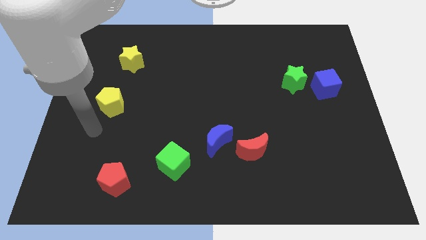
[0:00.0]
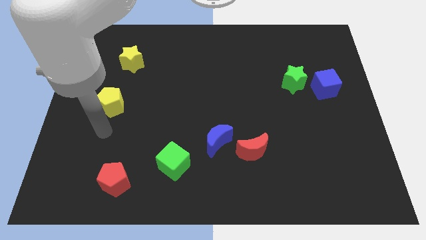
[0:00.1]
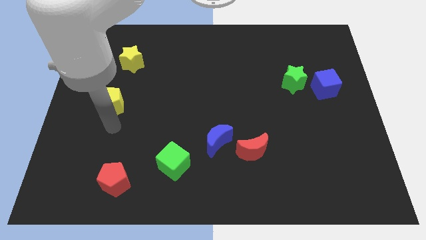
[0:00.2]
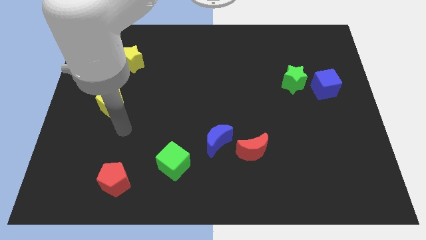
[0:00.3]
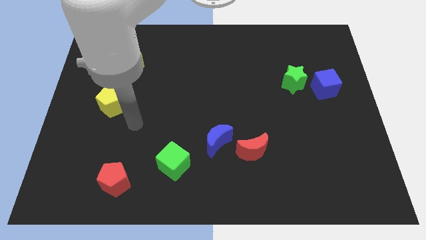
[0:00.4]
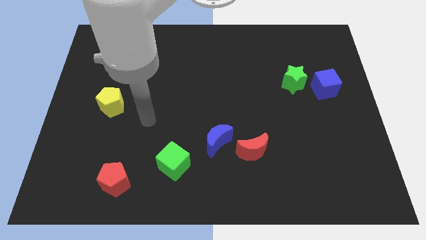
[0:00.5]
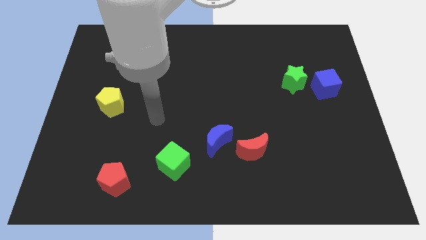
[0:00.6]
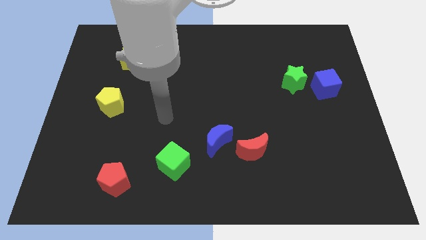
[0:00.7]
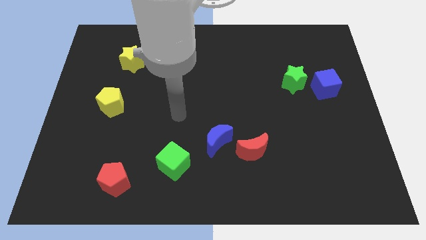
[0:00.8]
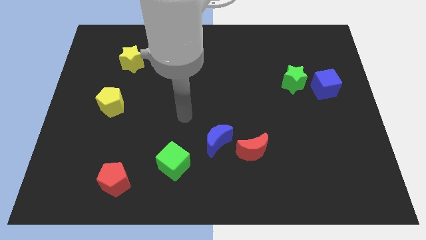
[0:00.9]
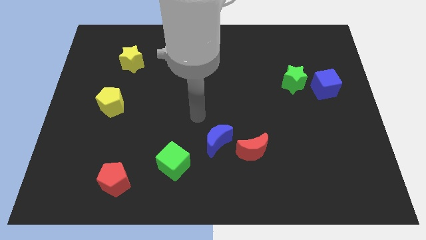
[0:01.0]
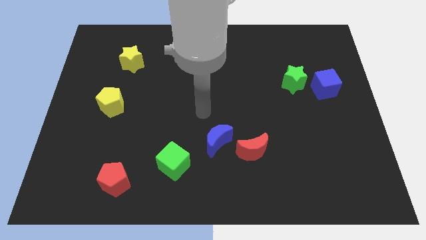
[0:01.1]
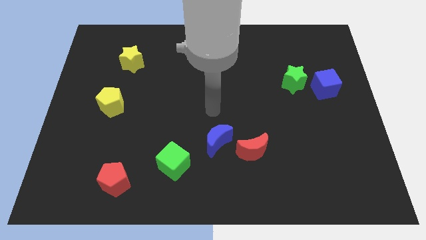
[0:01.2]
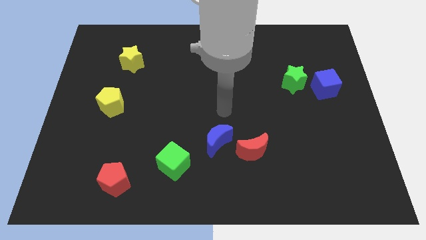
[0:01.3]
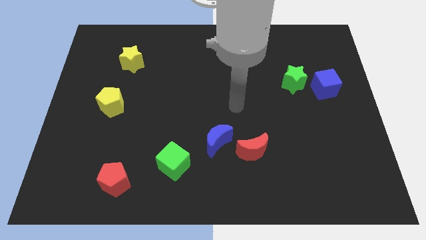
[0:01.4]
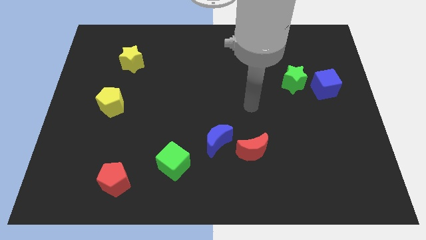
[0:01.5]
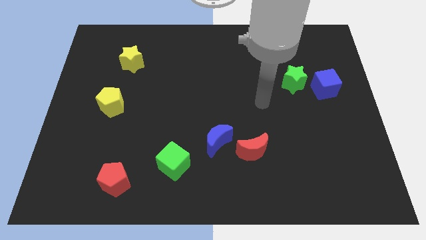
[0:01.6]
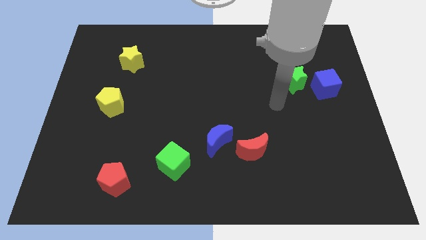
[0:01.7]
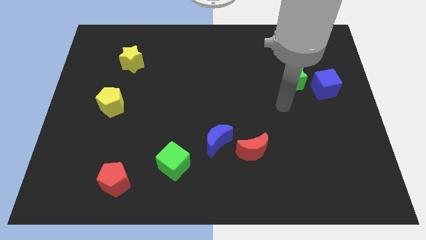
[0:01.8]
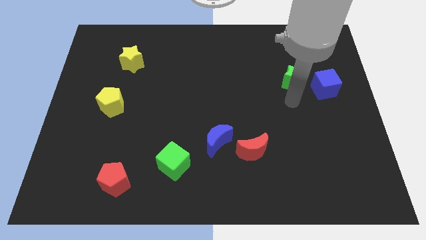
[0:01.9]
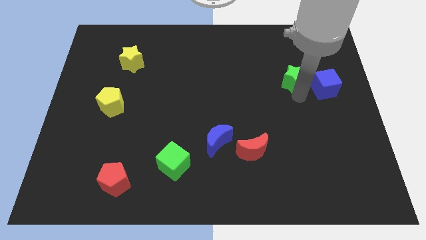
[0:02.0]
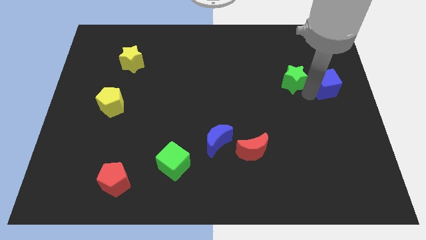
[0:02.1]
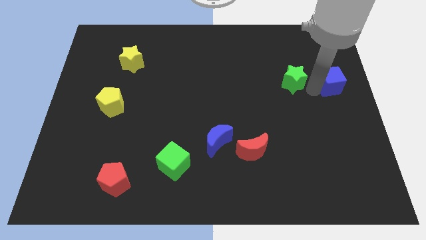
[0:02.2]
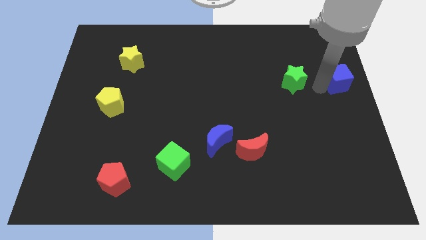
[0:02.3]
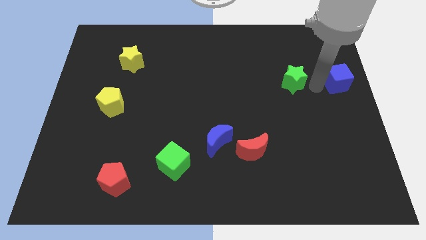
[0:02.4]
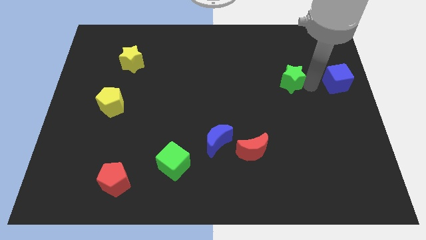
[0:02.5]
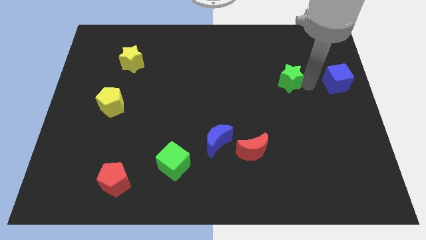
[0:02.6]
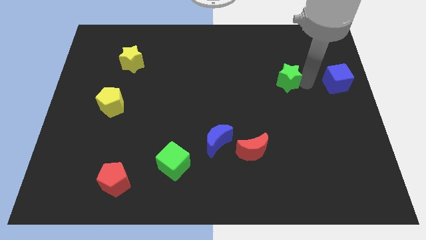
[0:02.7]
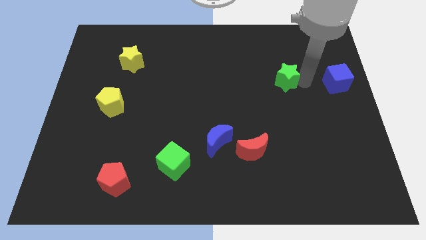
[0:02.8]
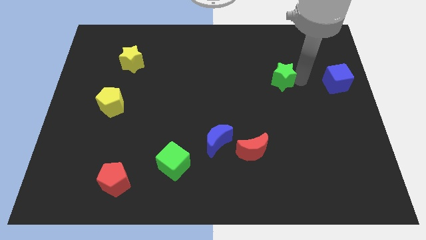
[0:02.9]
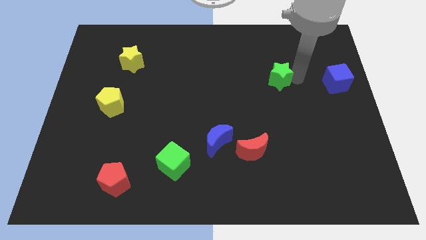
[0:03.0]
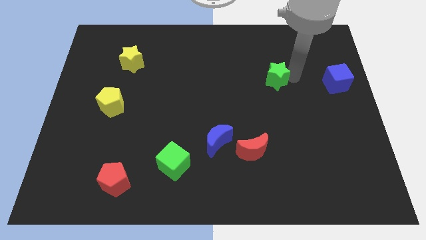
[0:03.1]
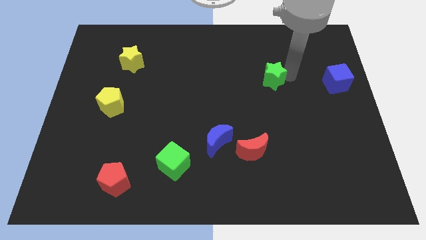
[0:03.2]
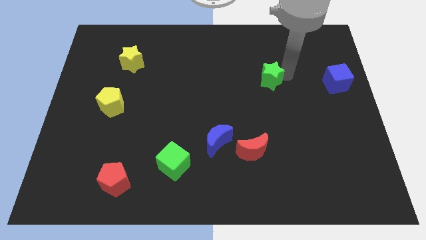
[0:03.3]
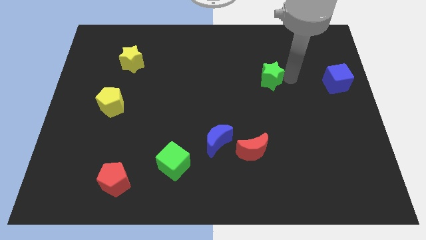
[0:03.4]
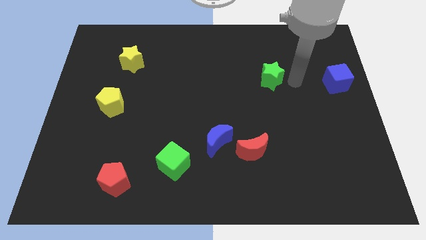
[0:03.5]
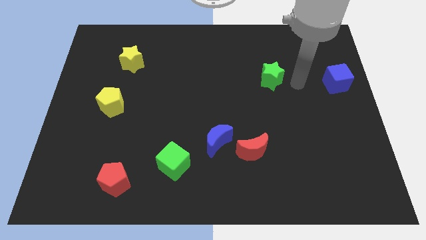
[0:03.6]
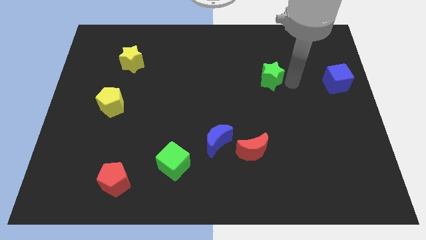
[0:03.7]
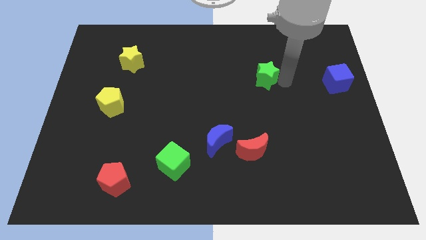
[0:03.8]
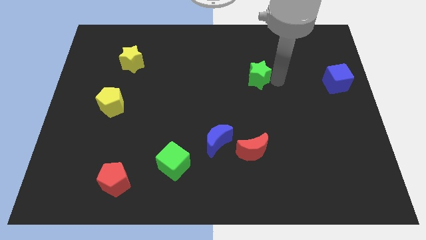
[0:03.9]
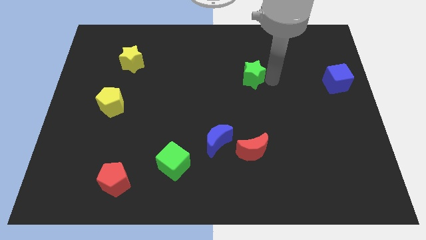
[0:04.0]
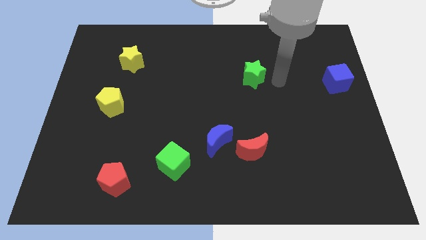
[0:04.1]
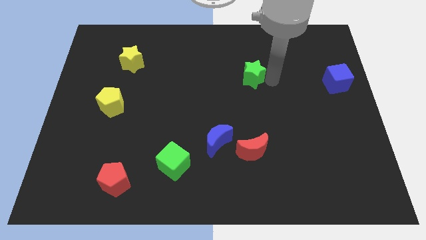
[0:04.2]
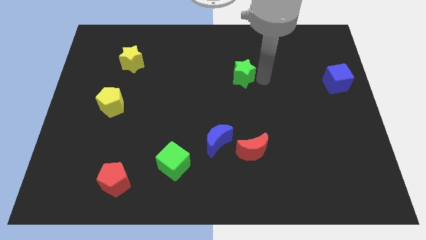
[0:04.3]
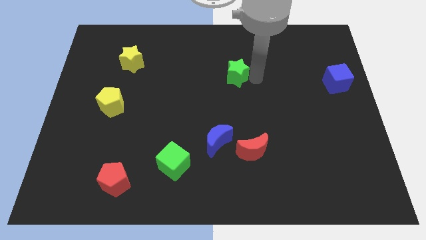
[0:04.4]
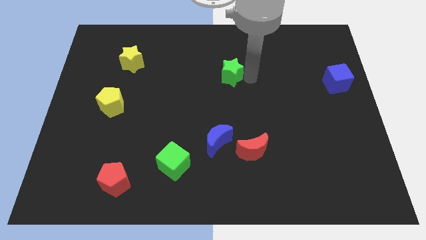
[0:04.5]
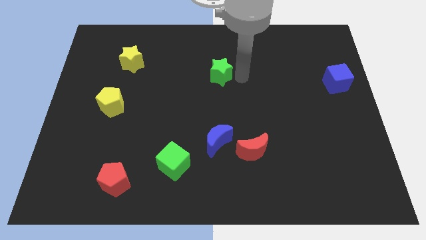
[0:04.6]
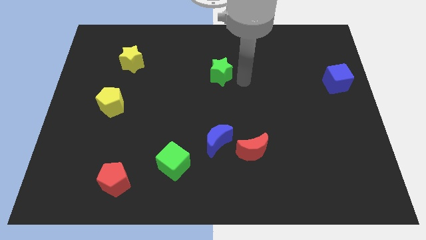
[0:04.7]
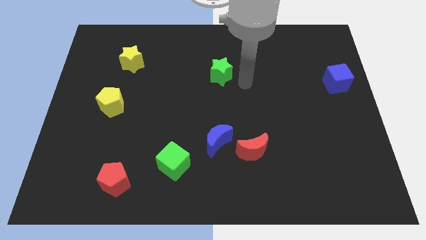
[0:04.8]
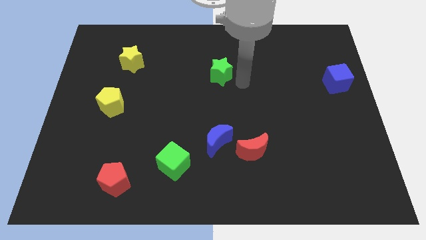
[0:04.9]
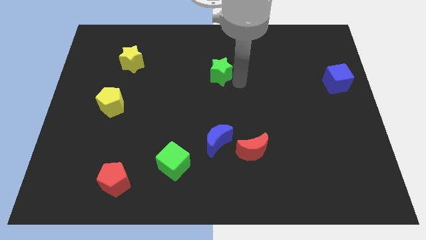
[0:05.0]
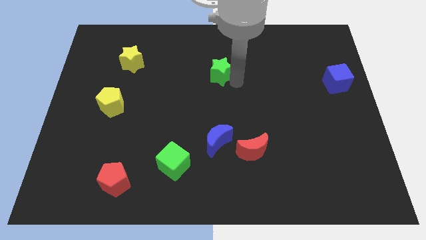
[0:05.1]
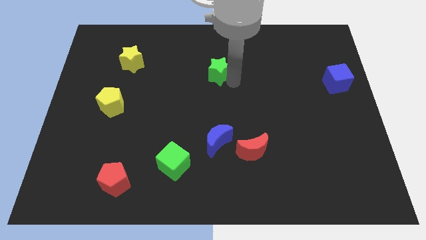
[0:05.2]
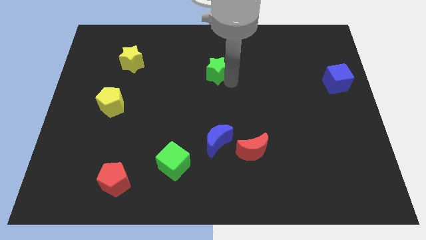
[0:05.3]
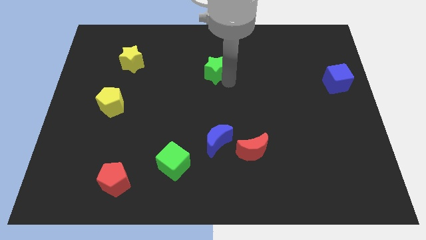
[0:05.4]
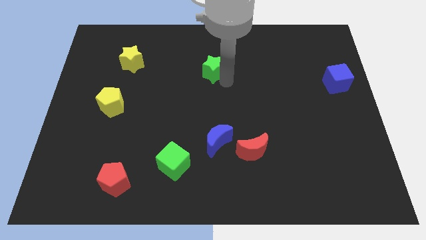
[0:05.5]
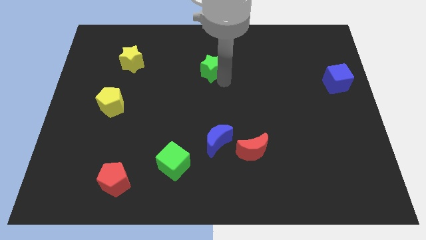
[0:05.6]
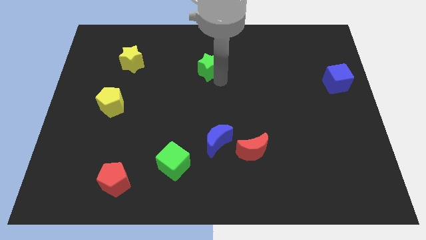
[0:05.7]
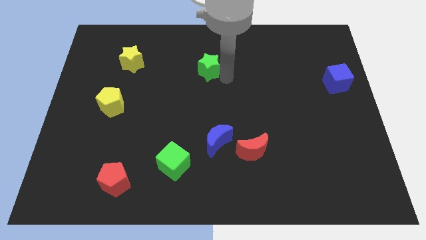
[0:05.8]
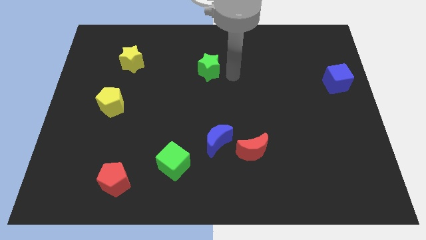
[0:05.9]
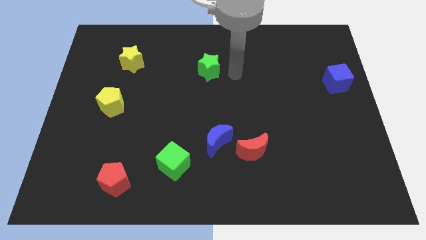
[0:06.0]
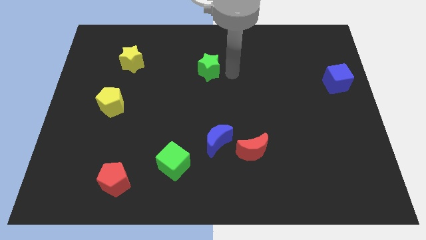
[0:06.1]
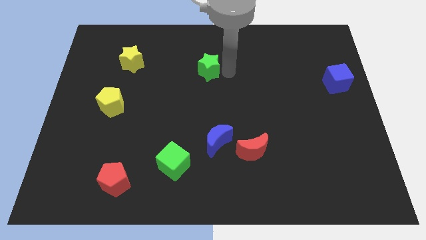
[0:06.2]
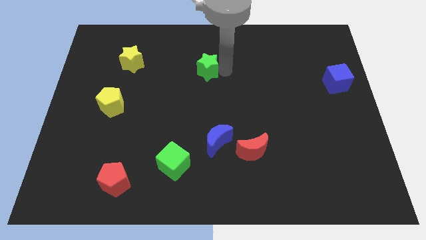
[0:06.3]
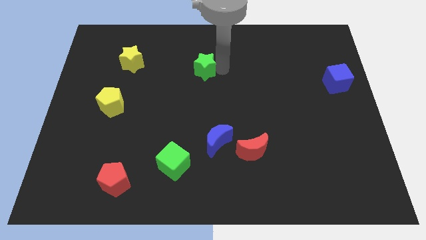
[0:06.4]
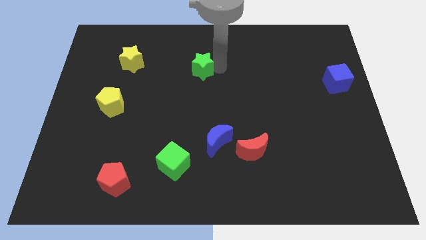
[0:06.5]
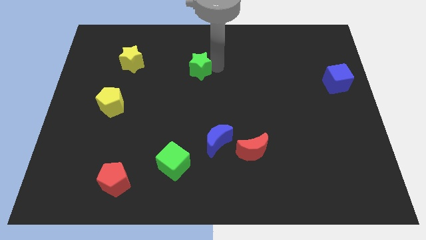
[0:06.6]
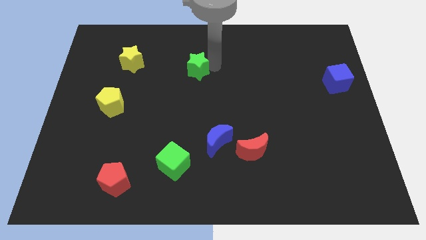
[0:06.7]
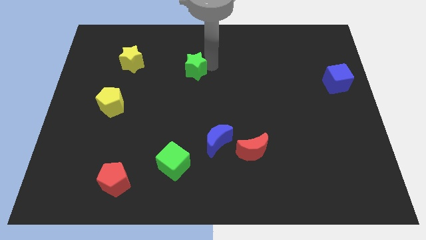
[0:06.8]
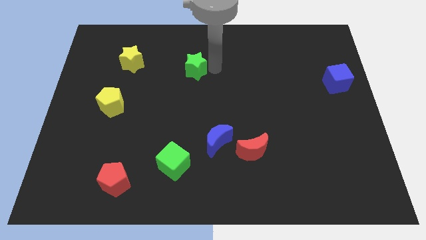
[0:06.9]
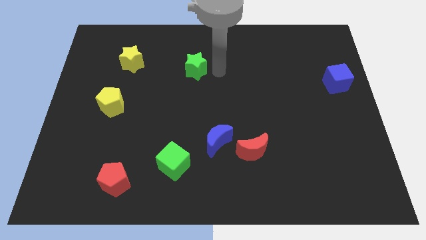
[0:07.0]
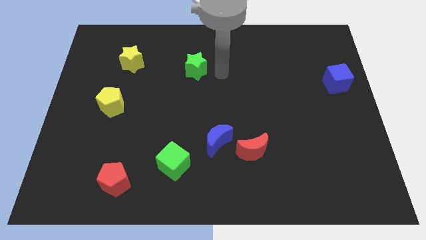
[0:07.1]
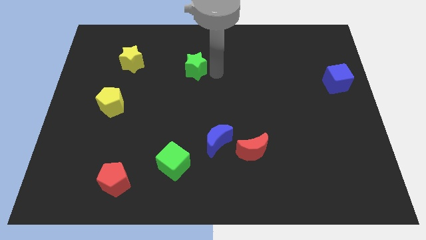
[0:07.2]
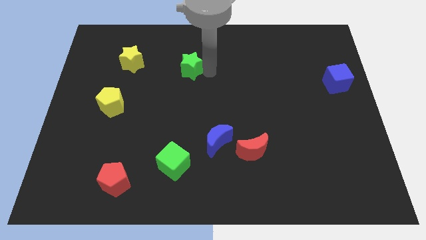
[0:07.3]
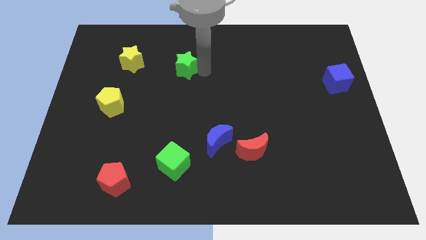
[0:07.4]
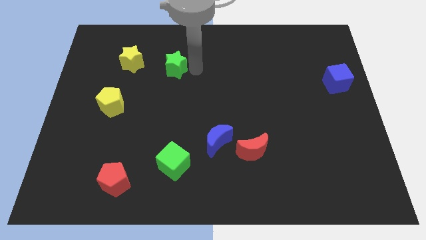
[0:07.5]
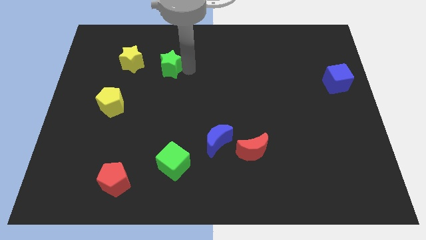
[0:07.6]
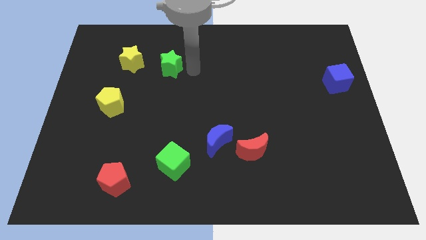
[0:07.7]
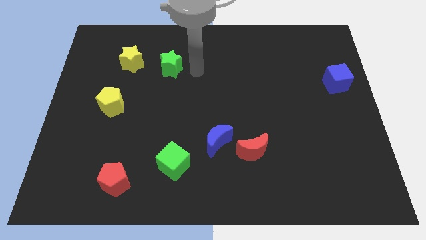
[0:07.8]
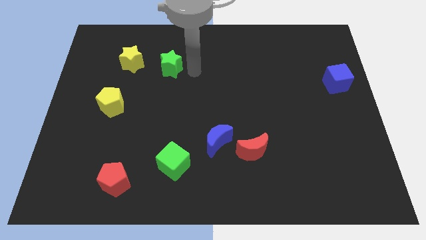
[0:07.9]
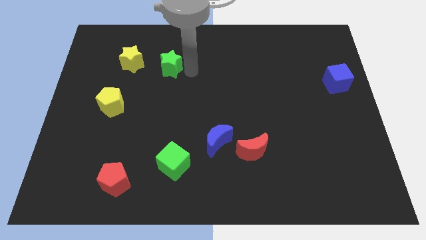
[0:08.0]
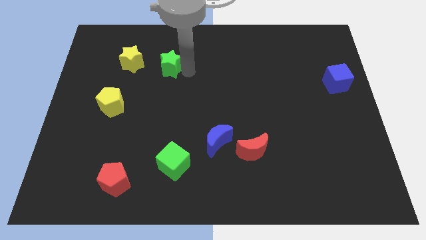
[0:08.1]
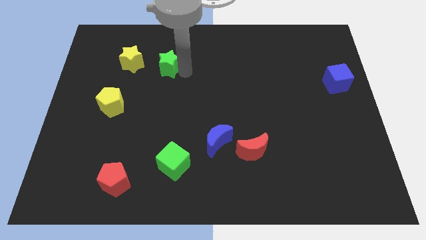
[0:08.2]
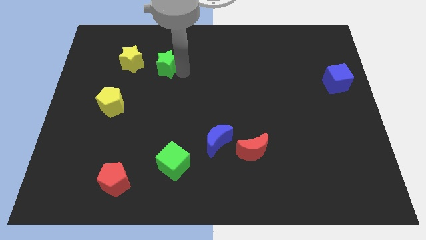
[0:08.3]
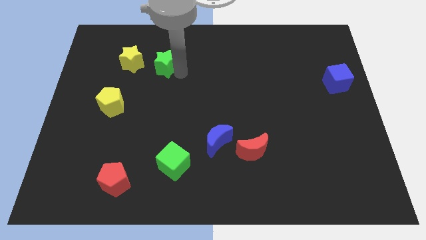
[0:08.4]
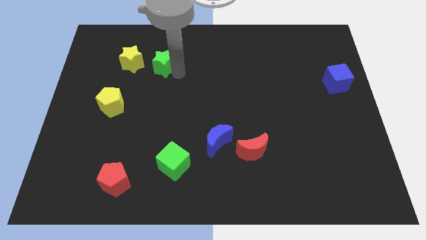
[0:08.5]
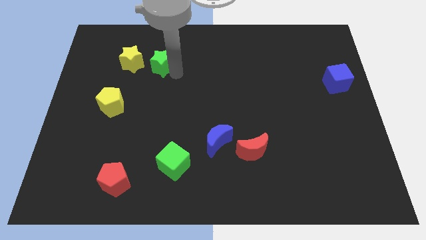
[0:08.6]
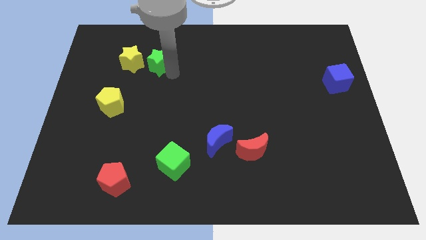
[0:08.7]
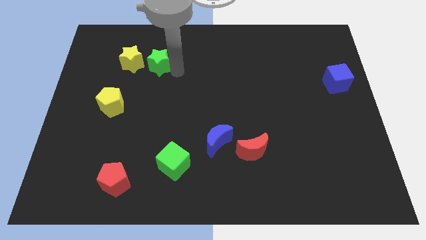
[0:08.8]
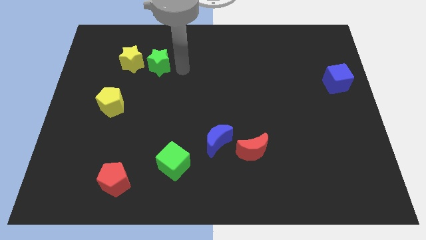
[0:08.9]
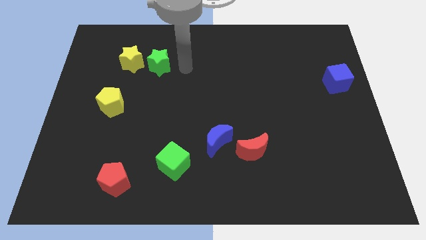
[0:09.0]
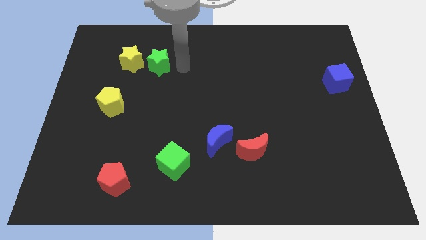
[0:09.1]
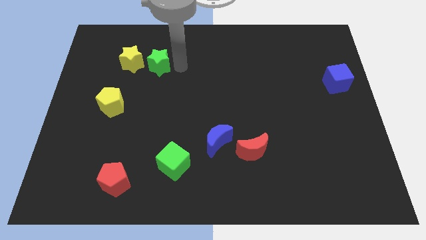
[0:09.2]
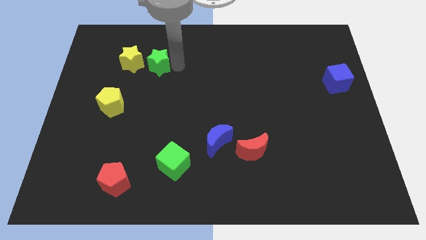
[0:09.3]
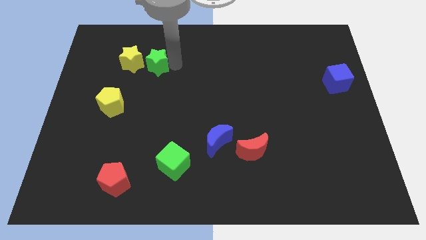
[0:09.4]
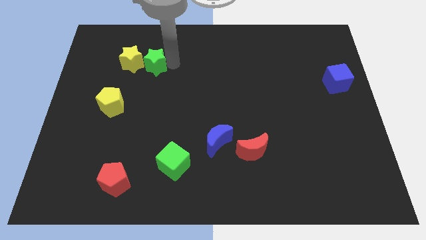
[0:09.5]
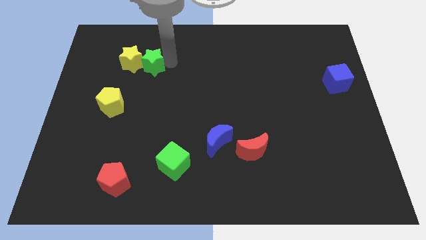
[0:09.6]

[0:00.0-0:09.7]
slide the green star close to the yellow star
